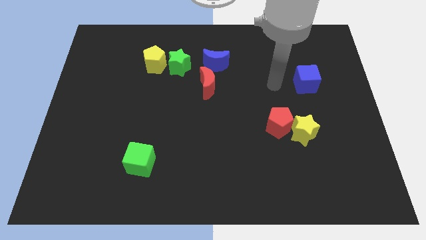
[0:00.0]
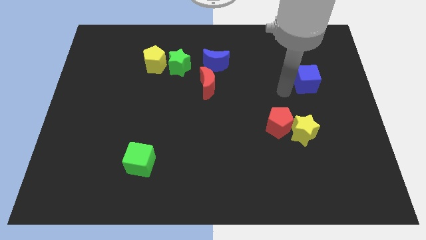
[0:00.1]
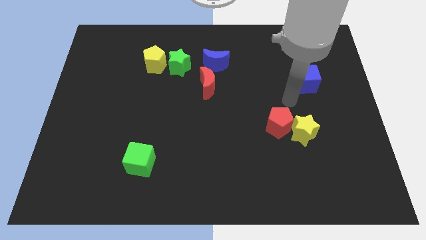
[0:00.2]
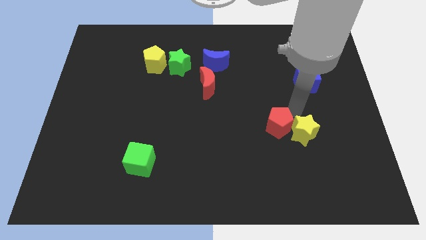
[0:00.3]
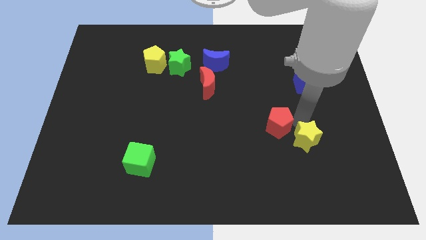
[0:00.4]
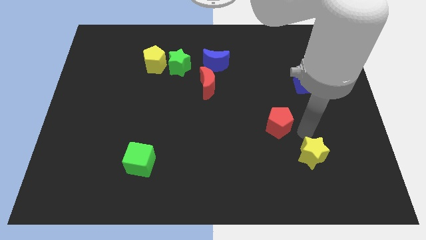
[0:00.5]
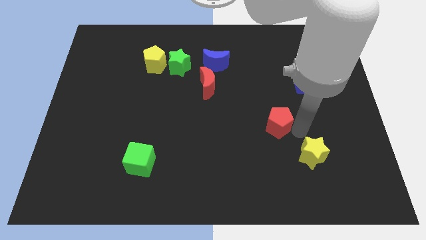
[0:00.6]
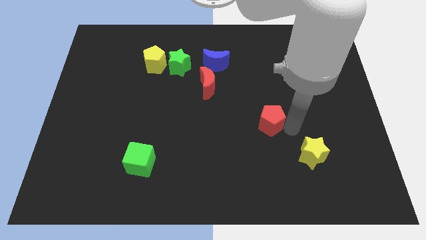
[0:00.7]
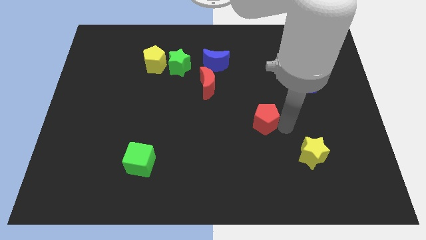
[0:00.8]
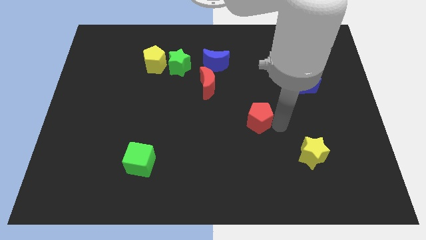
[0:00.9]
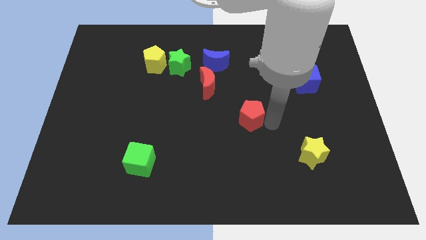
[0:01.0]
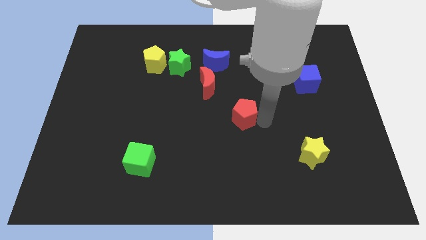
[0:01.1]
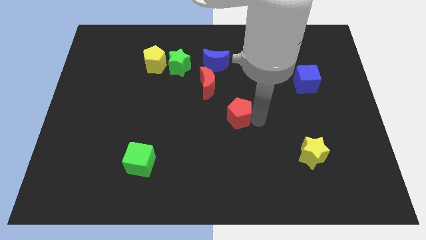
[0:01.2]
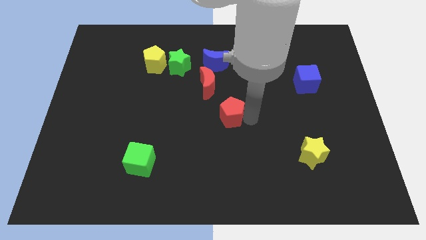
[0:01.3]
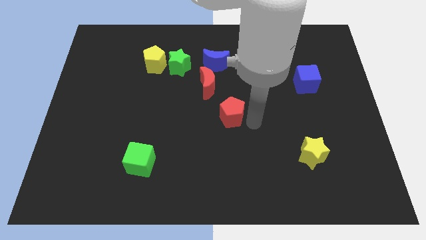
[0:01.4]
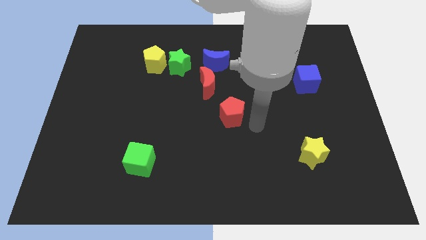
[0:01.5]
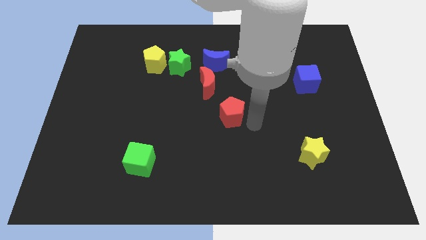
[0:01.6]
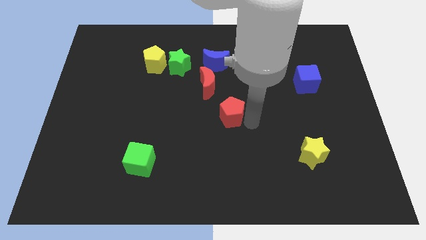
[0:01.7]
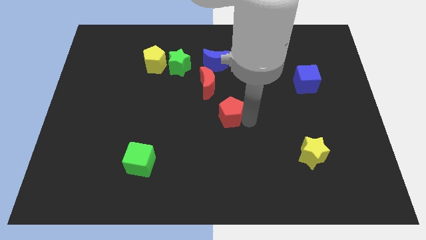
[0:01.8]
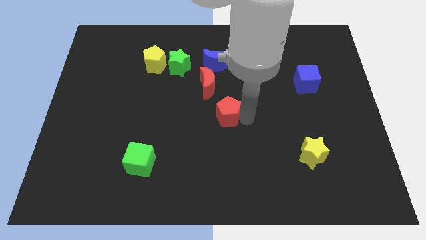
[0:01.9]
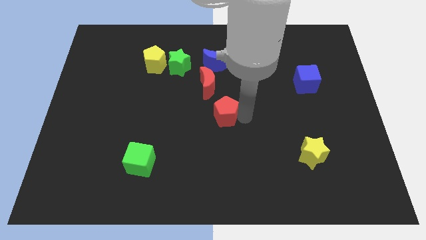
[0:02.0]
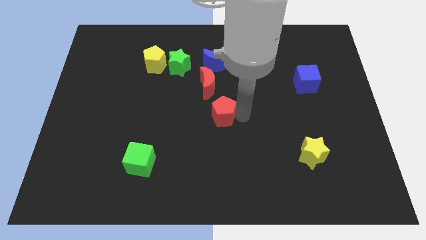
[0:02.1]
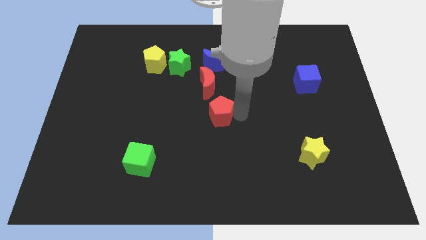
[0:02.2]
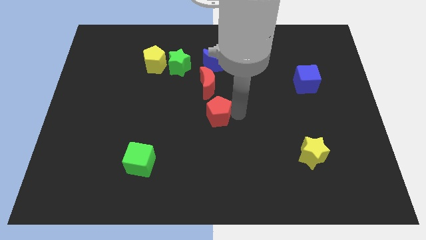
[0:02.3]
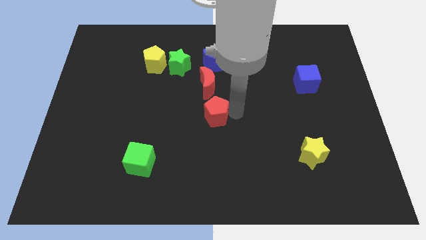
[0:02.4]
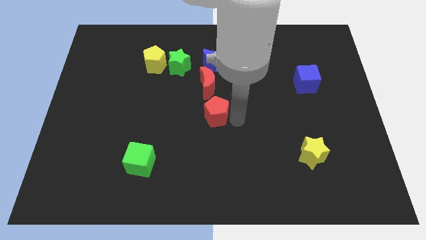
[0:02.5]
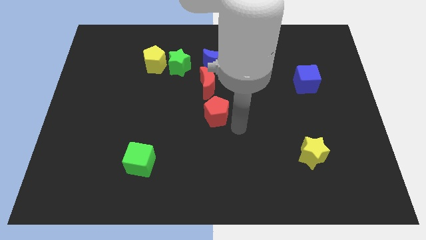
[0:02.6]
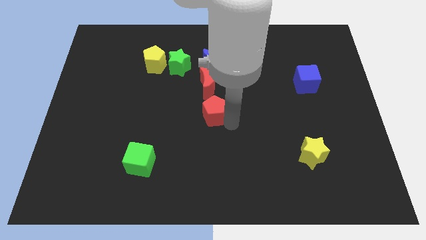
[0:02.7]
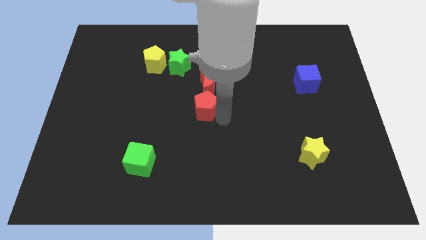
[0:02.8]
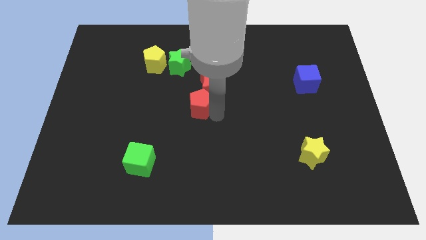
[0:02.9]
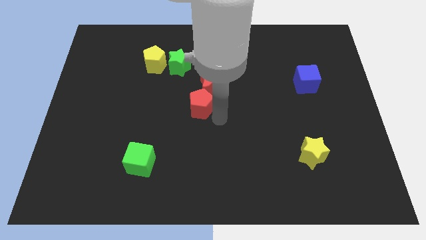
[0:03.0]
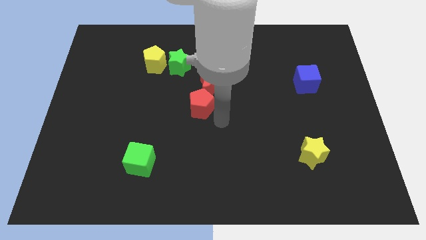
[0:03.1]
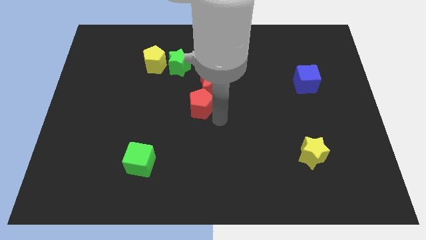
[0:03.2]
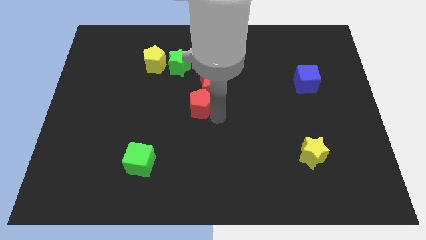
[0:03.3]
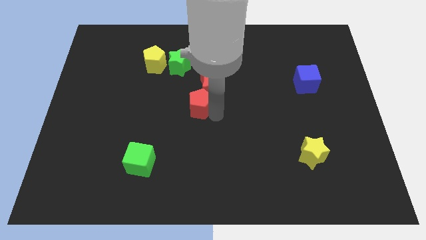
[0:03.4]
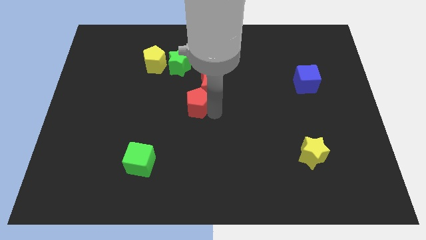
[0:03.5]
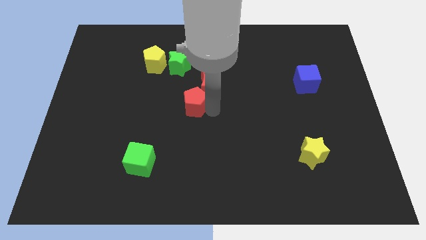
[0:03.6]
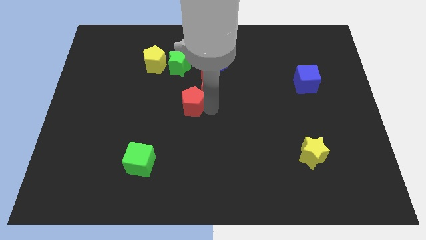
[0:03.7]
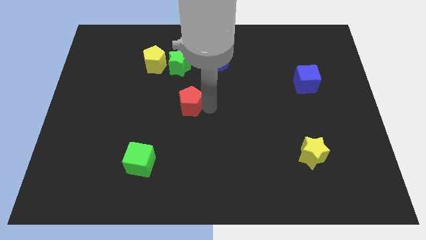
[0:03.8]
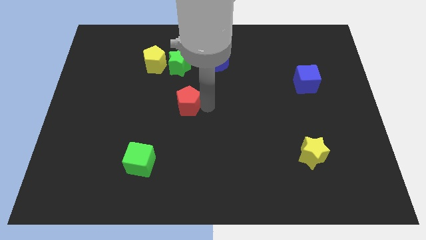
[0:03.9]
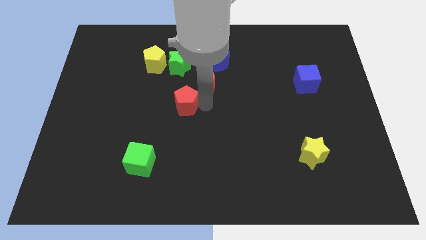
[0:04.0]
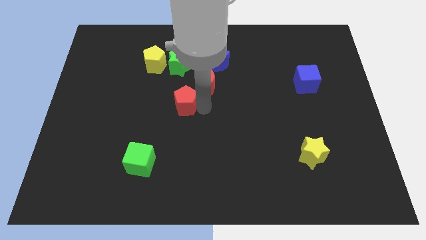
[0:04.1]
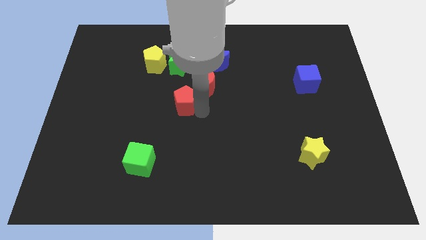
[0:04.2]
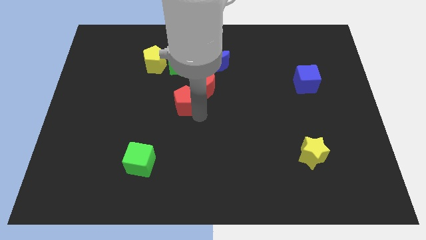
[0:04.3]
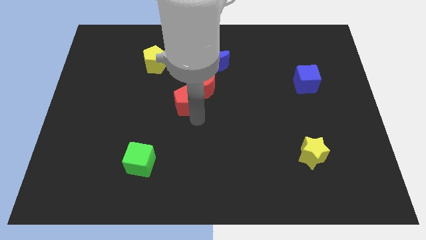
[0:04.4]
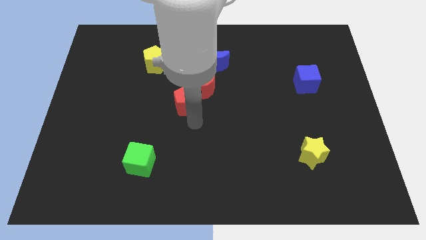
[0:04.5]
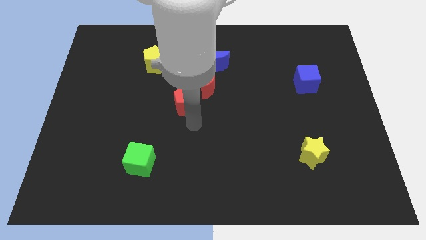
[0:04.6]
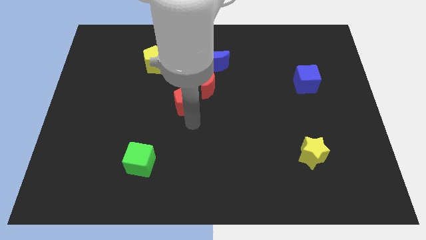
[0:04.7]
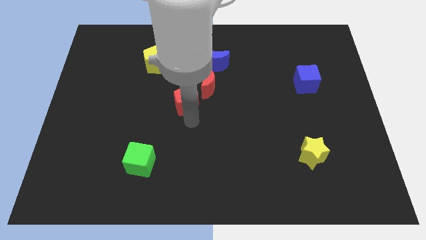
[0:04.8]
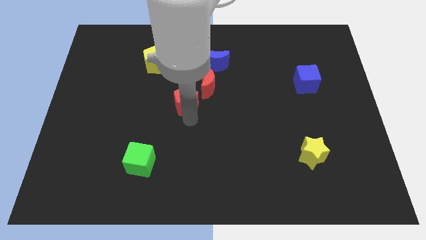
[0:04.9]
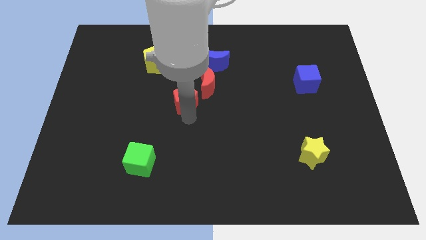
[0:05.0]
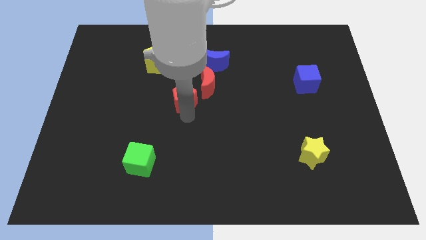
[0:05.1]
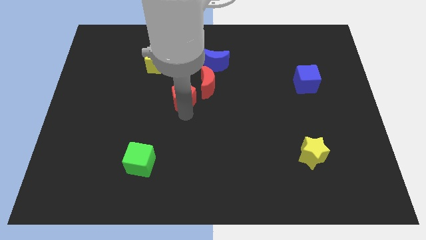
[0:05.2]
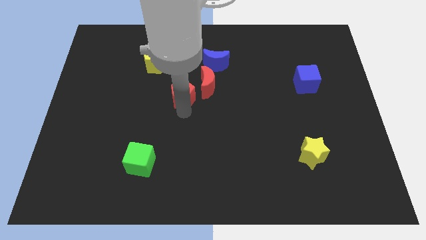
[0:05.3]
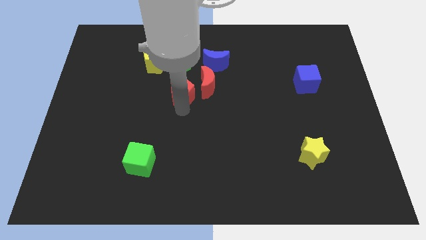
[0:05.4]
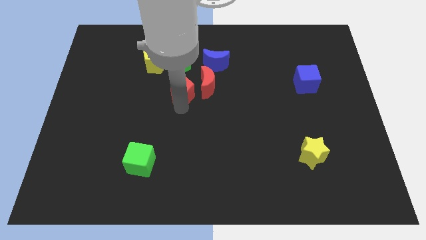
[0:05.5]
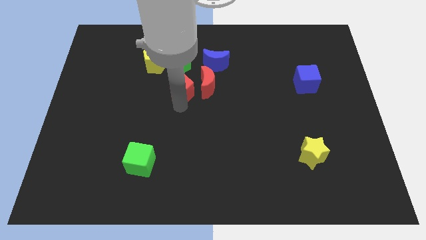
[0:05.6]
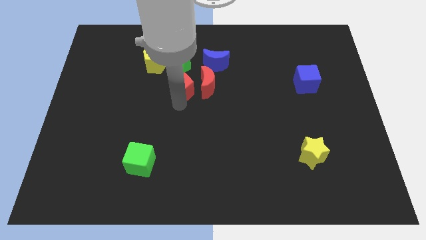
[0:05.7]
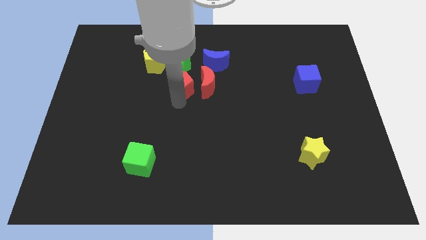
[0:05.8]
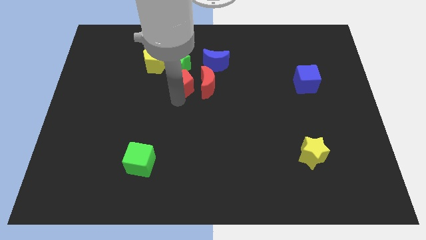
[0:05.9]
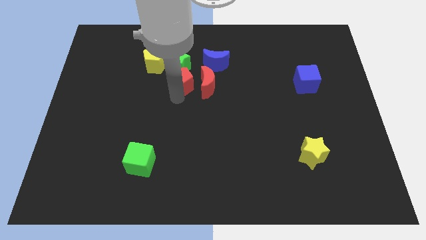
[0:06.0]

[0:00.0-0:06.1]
put the red pentagon towards the green star

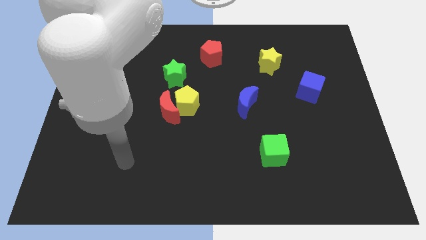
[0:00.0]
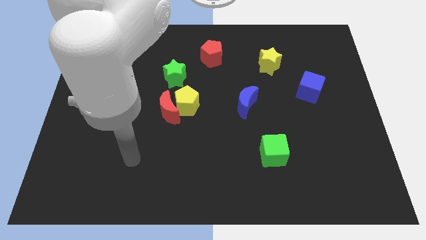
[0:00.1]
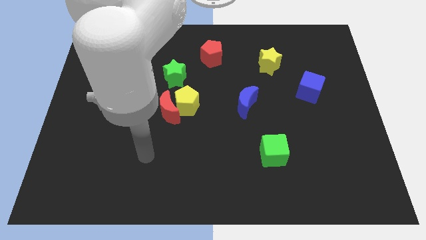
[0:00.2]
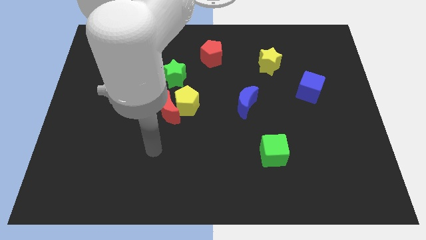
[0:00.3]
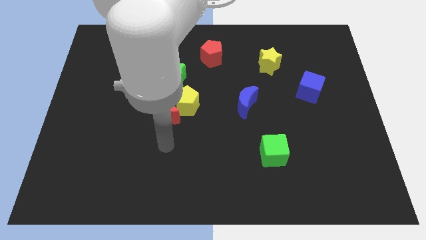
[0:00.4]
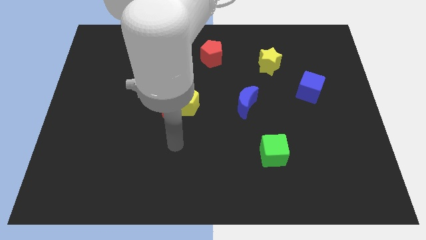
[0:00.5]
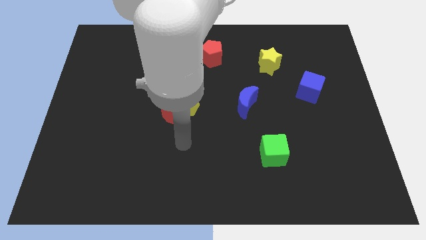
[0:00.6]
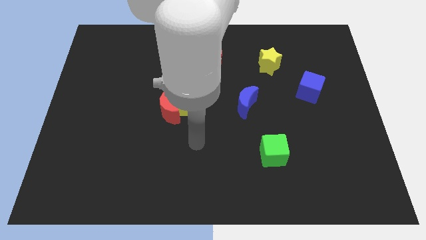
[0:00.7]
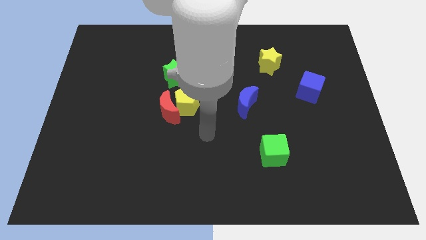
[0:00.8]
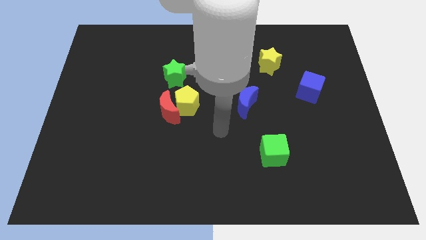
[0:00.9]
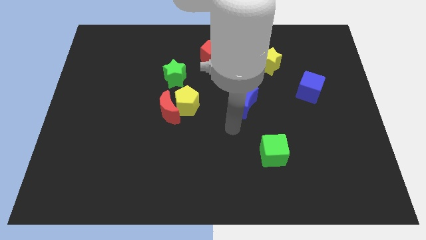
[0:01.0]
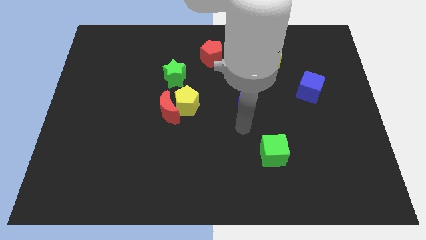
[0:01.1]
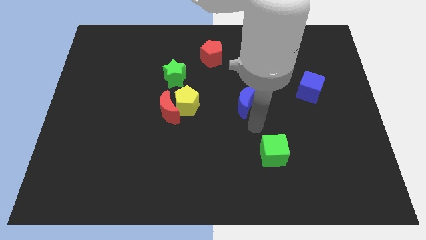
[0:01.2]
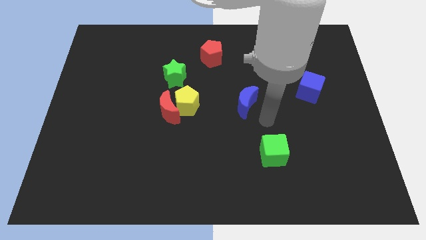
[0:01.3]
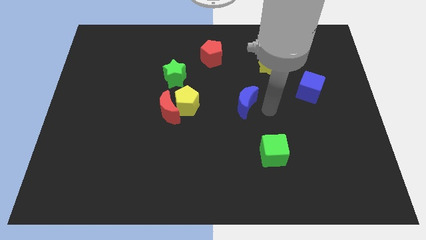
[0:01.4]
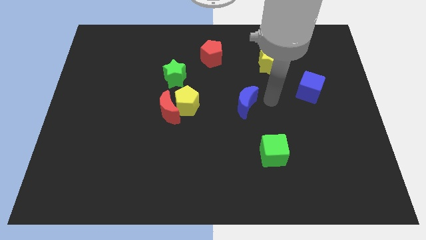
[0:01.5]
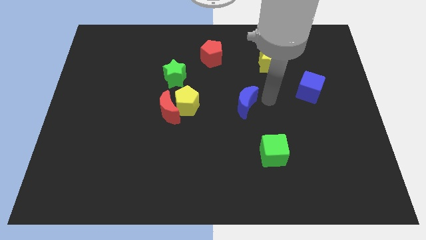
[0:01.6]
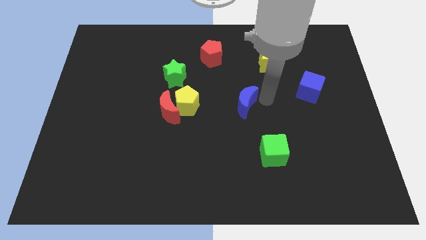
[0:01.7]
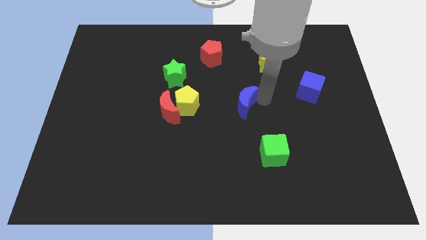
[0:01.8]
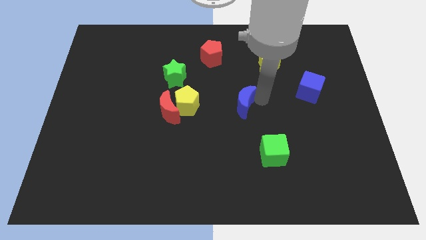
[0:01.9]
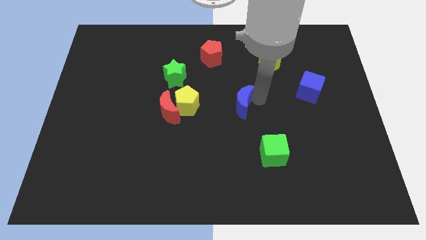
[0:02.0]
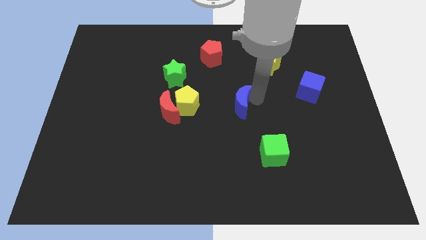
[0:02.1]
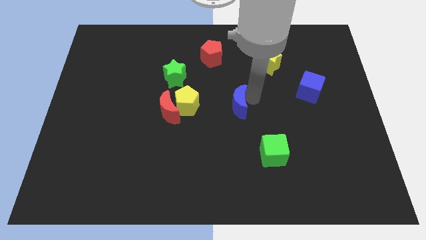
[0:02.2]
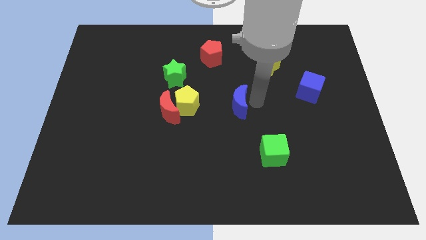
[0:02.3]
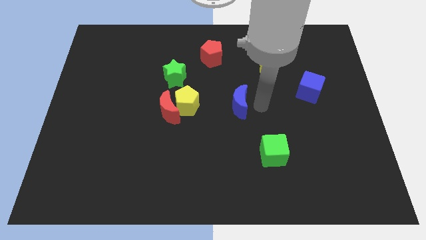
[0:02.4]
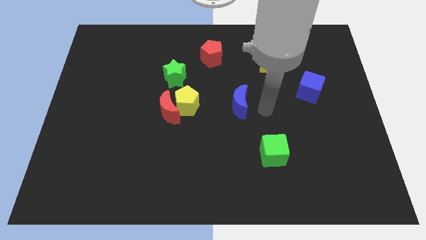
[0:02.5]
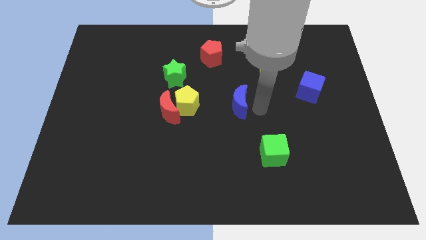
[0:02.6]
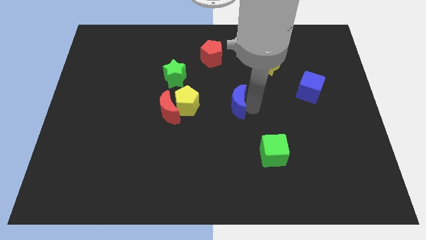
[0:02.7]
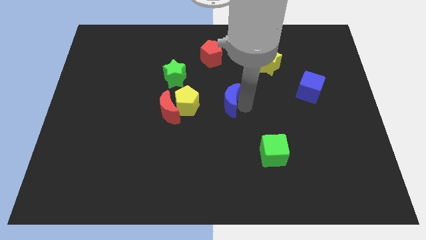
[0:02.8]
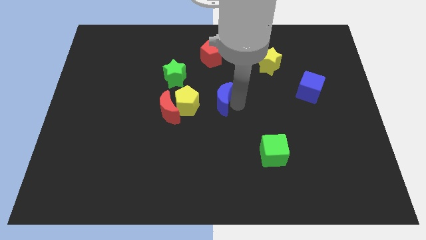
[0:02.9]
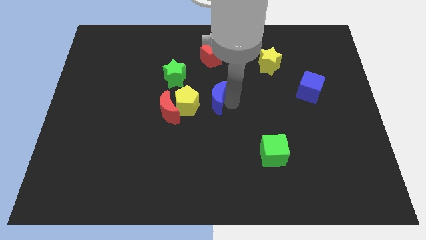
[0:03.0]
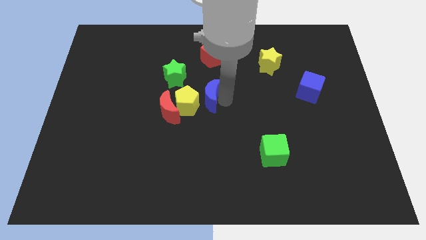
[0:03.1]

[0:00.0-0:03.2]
slide the blue moon to the yellow pentagon
